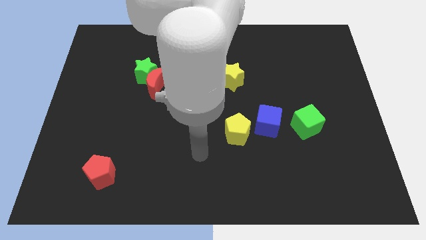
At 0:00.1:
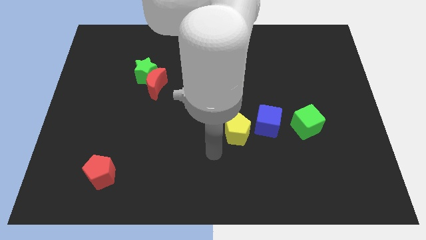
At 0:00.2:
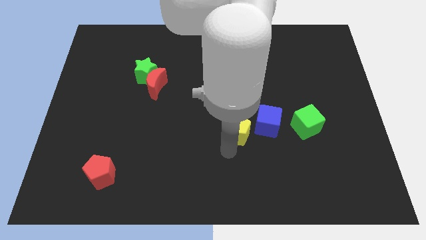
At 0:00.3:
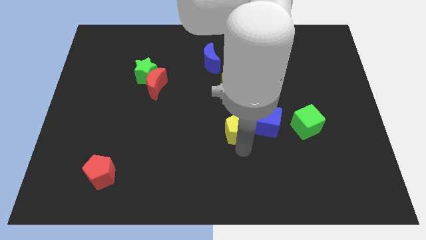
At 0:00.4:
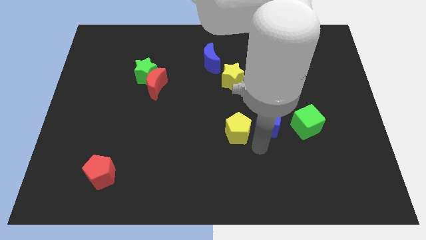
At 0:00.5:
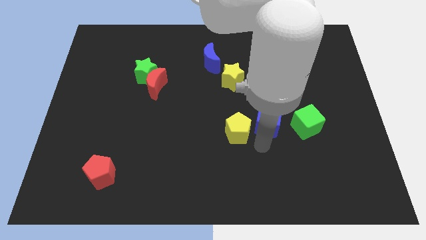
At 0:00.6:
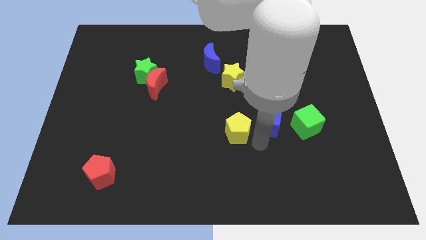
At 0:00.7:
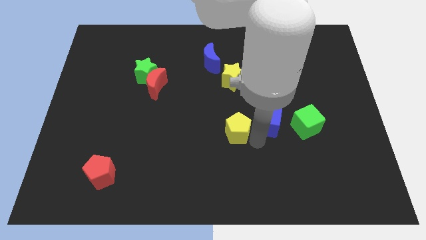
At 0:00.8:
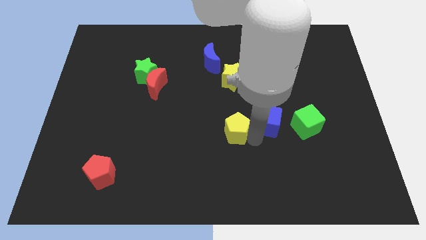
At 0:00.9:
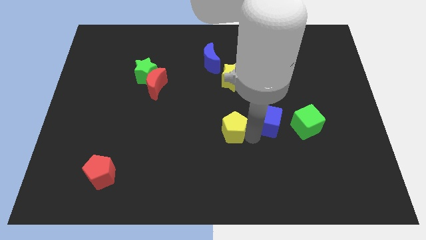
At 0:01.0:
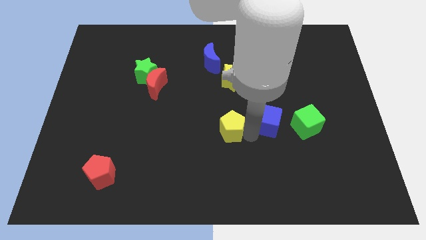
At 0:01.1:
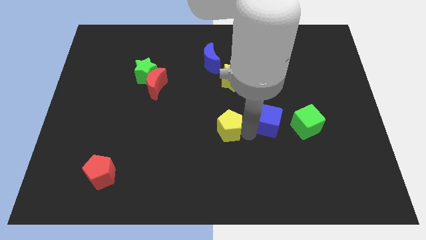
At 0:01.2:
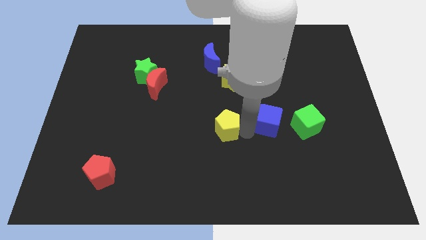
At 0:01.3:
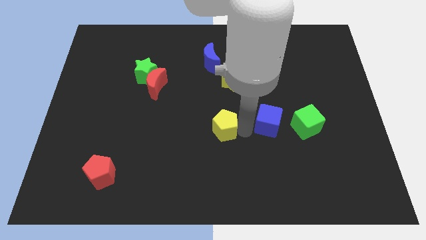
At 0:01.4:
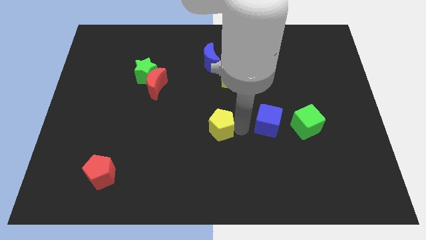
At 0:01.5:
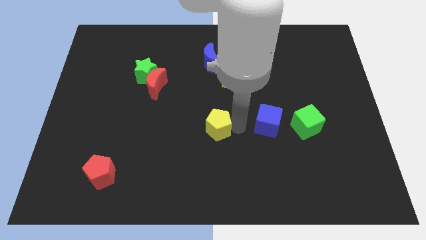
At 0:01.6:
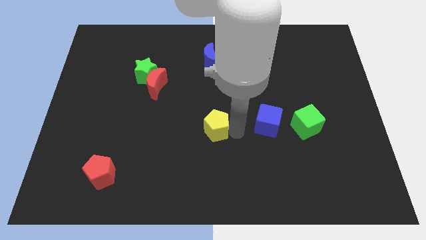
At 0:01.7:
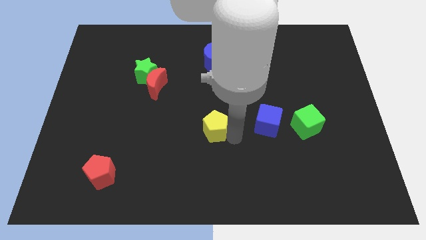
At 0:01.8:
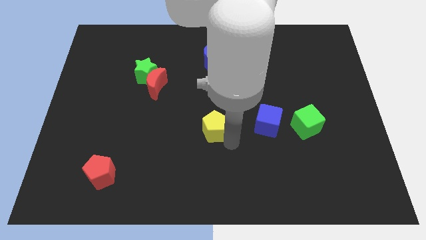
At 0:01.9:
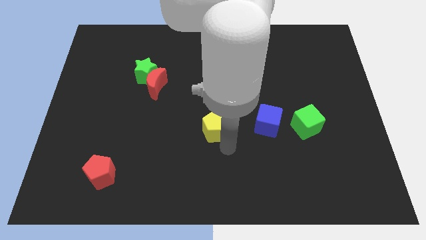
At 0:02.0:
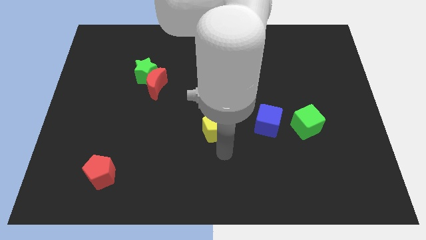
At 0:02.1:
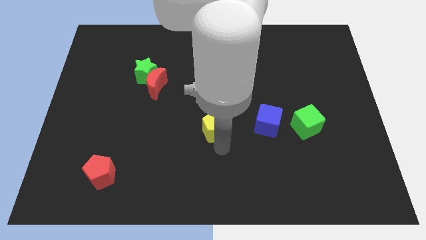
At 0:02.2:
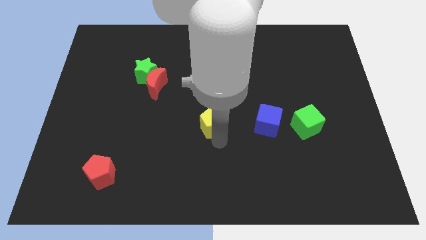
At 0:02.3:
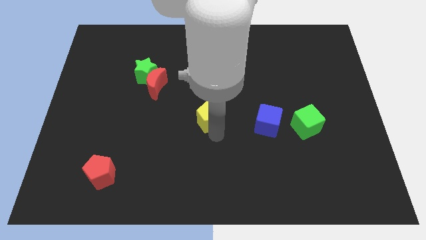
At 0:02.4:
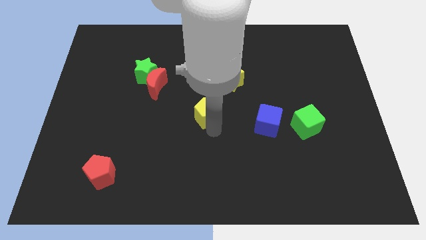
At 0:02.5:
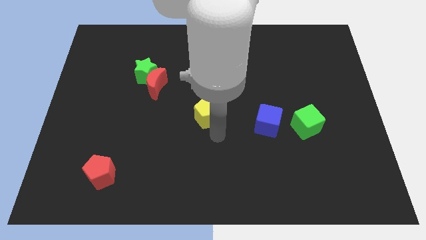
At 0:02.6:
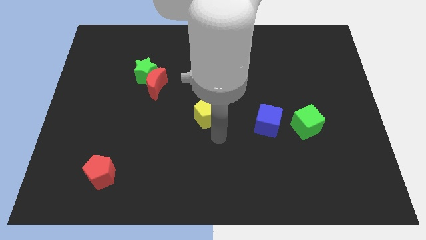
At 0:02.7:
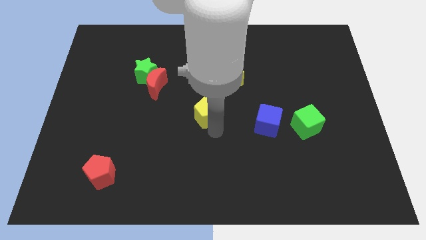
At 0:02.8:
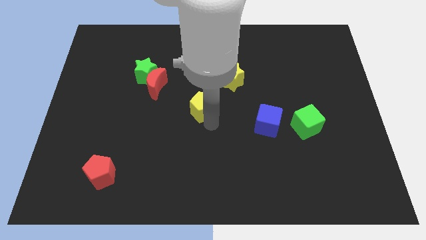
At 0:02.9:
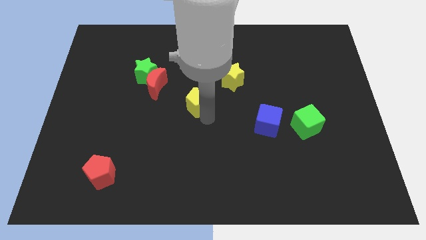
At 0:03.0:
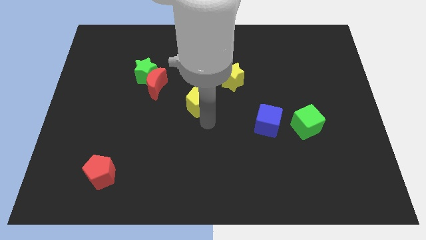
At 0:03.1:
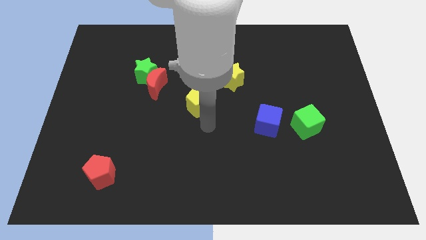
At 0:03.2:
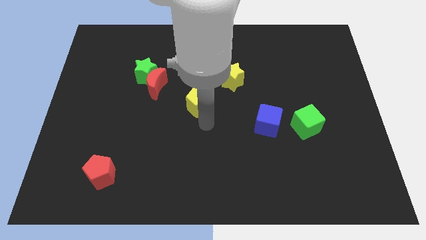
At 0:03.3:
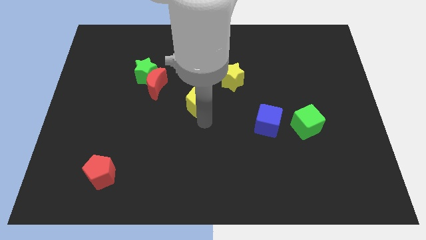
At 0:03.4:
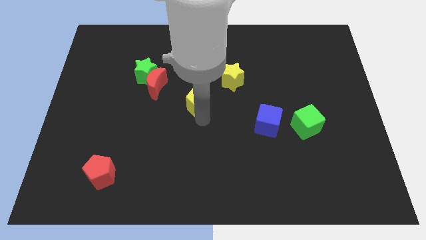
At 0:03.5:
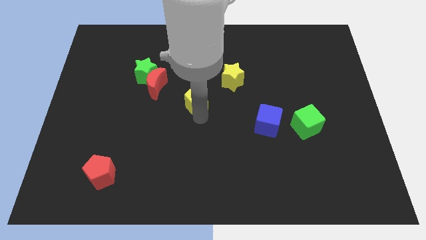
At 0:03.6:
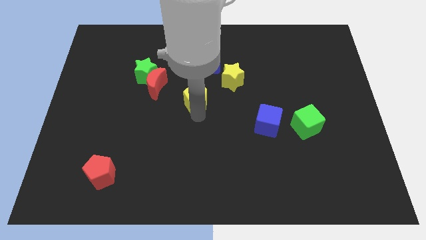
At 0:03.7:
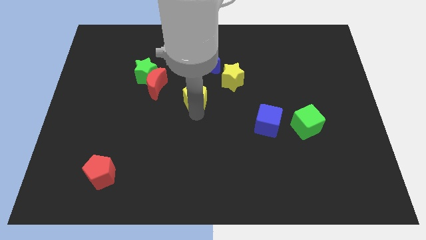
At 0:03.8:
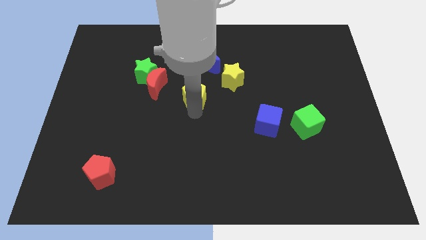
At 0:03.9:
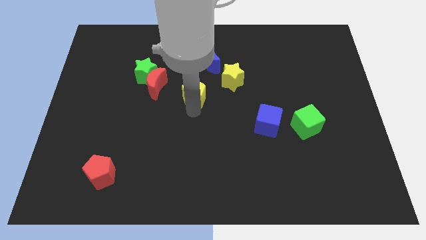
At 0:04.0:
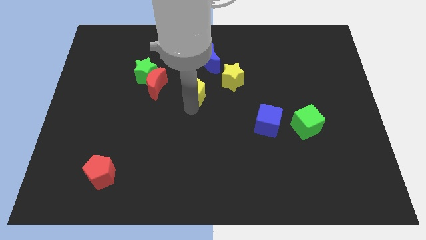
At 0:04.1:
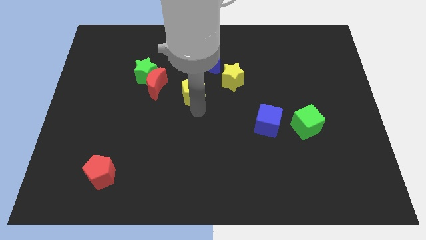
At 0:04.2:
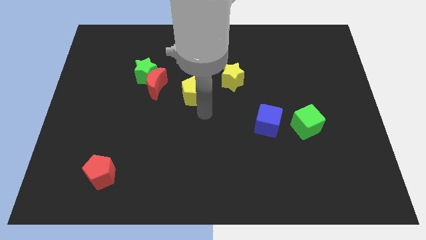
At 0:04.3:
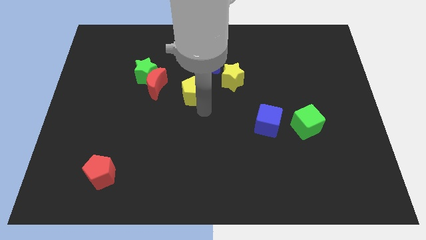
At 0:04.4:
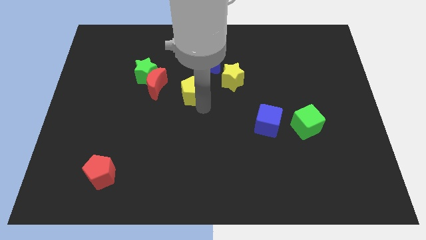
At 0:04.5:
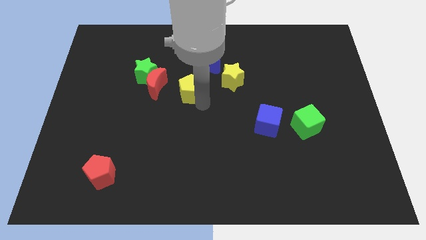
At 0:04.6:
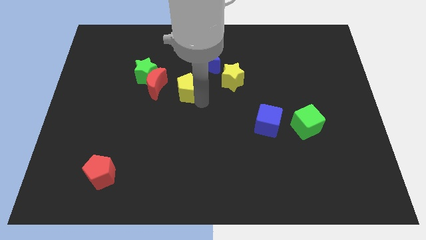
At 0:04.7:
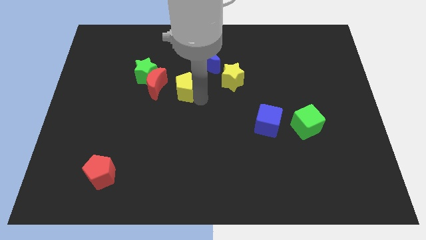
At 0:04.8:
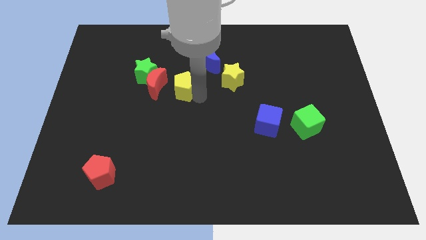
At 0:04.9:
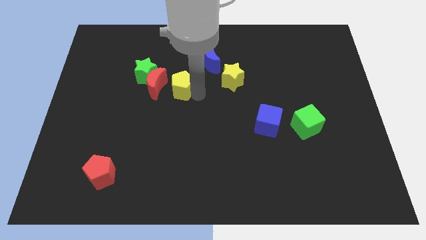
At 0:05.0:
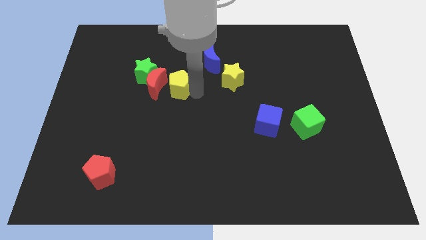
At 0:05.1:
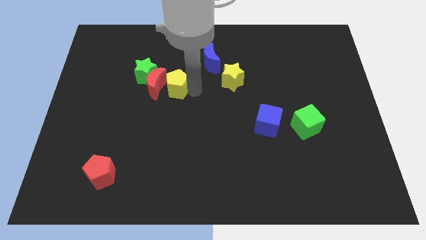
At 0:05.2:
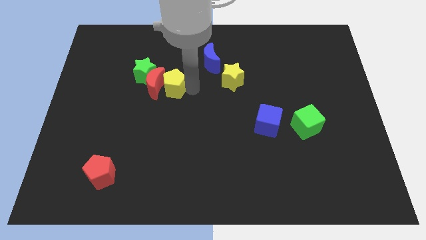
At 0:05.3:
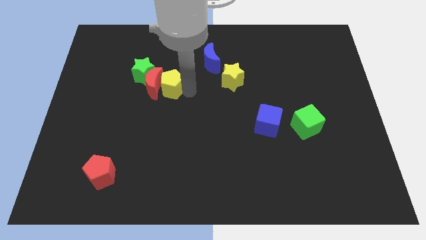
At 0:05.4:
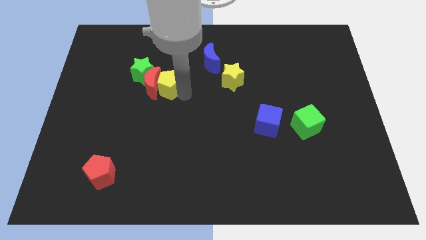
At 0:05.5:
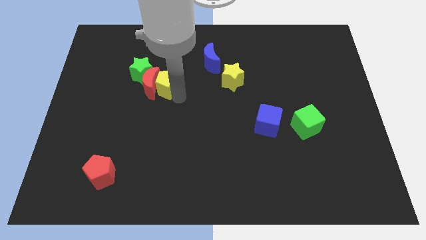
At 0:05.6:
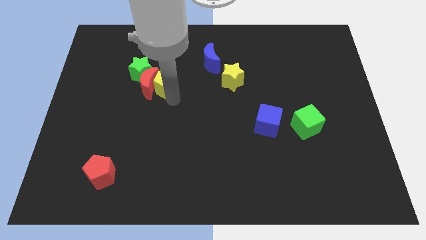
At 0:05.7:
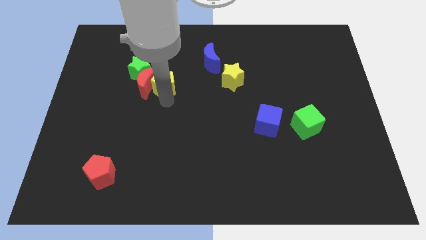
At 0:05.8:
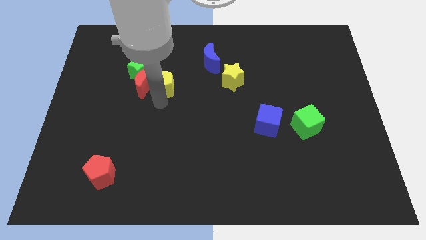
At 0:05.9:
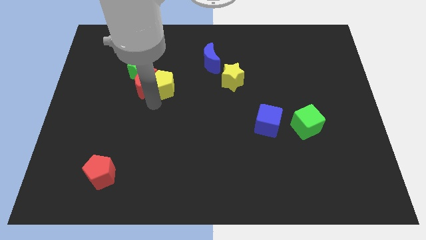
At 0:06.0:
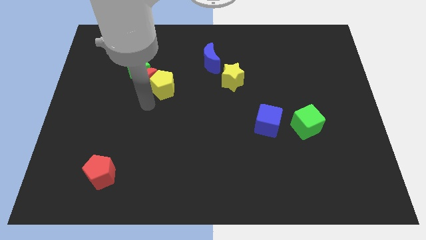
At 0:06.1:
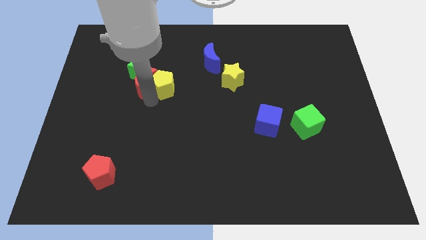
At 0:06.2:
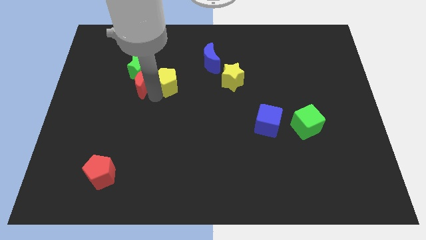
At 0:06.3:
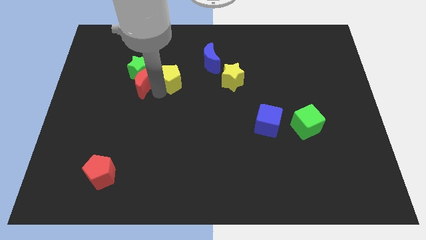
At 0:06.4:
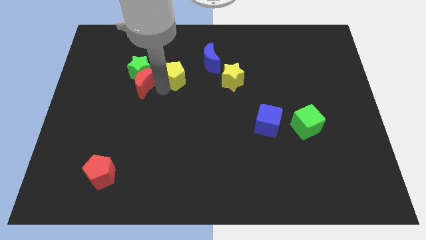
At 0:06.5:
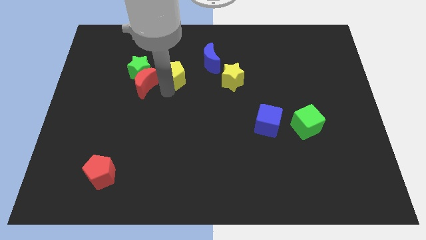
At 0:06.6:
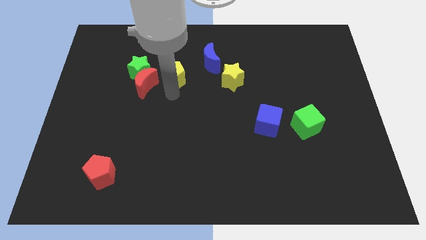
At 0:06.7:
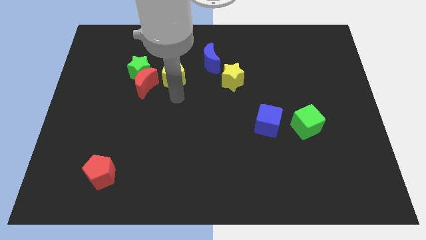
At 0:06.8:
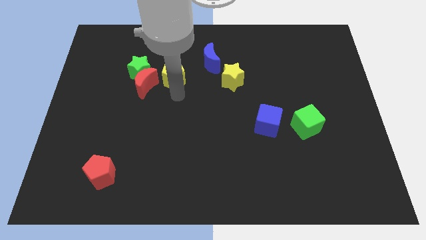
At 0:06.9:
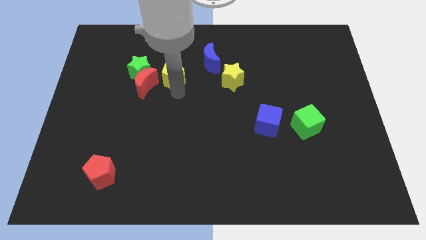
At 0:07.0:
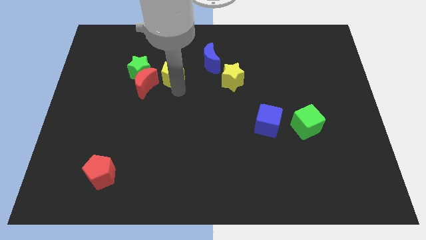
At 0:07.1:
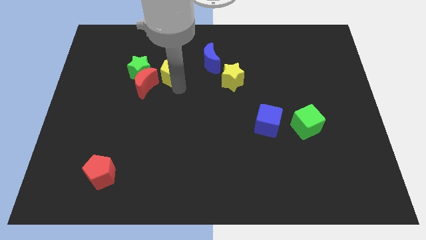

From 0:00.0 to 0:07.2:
put the yellow pentagon left of the blue moon

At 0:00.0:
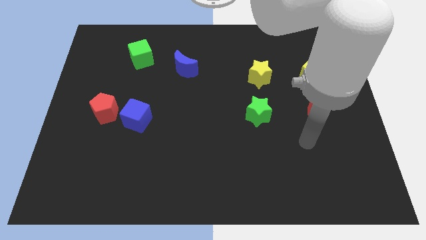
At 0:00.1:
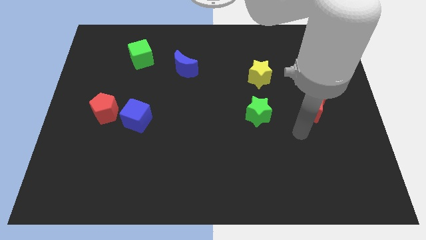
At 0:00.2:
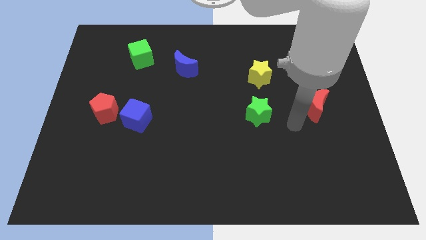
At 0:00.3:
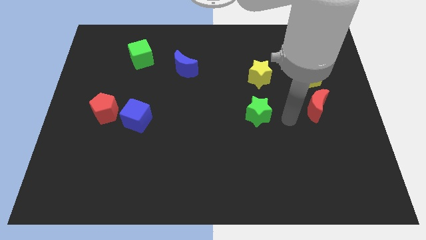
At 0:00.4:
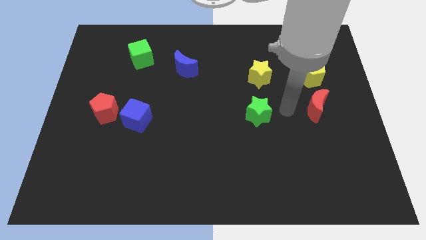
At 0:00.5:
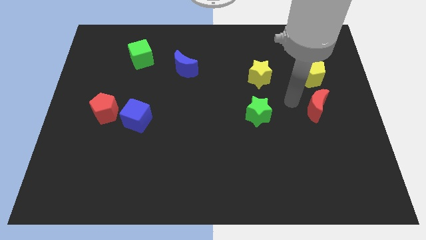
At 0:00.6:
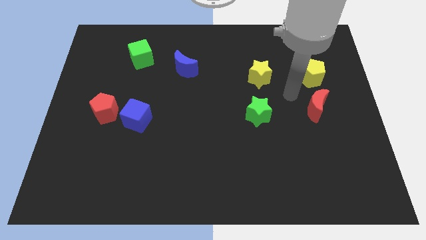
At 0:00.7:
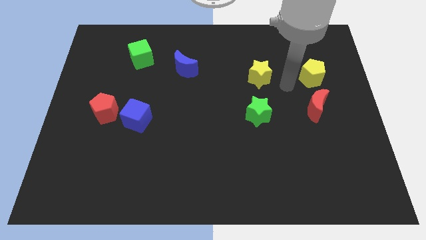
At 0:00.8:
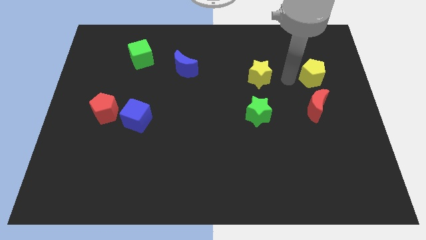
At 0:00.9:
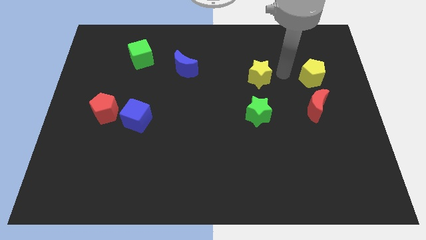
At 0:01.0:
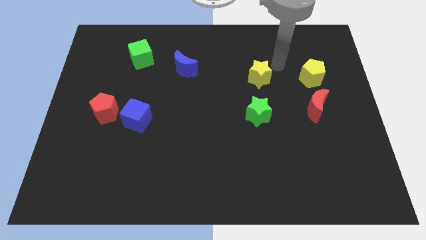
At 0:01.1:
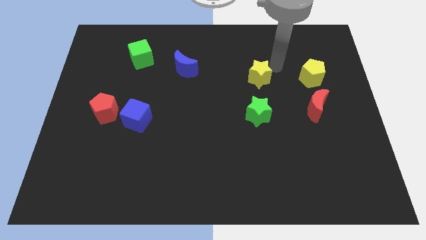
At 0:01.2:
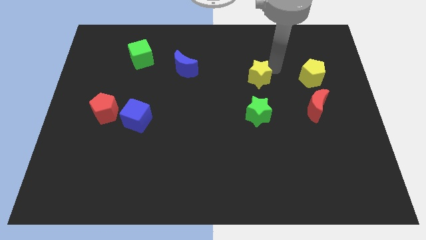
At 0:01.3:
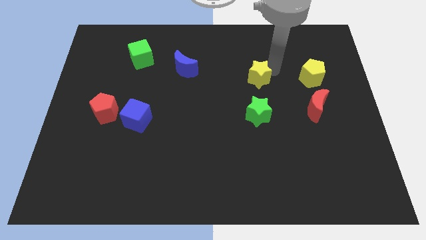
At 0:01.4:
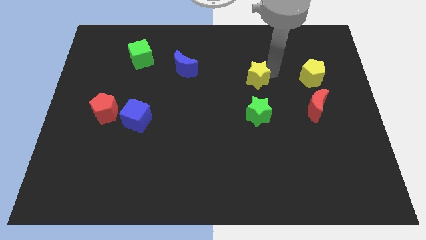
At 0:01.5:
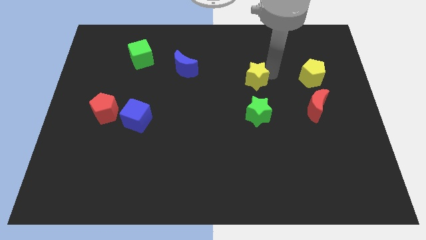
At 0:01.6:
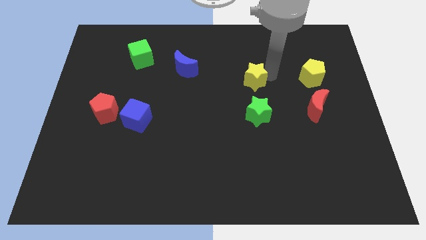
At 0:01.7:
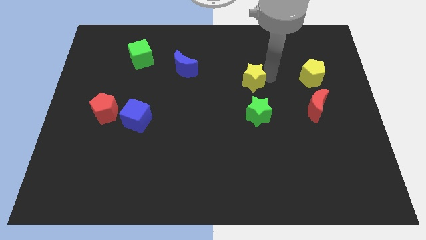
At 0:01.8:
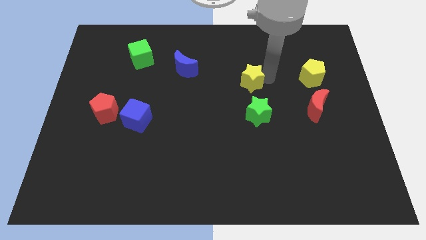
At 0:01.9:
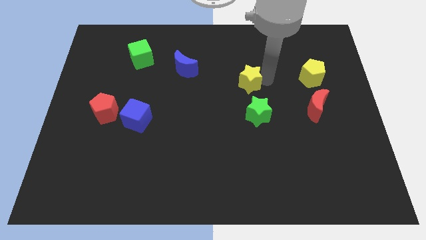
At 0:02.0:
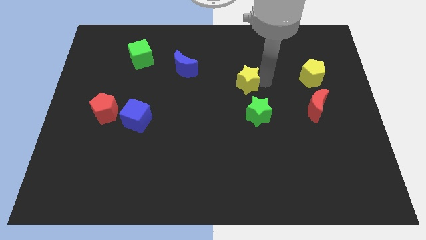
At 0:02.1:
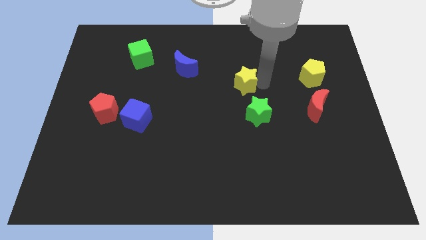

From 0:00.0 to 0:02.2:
put the yellow star diagonally up and to the left of the green star
